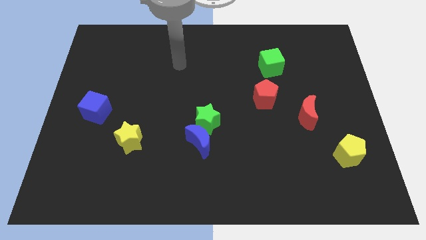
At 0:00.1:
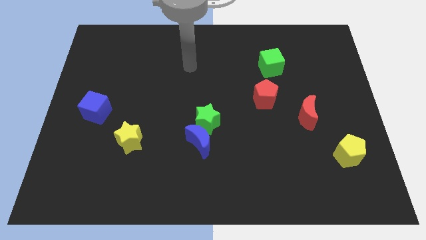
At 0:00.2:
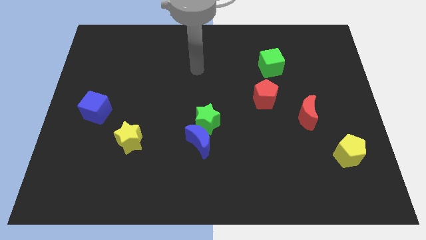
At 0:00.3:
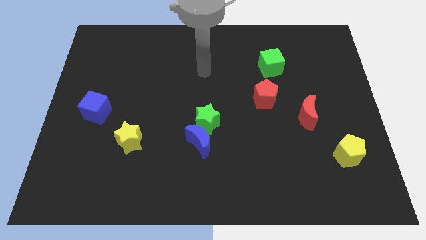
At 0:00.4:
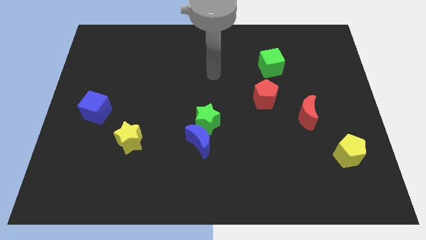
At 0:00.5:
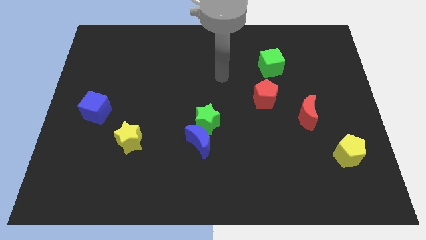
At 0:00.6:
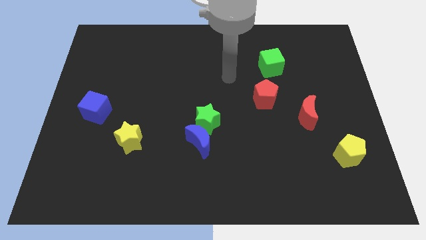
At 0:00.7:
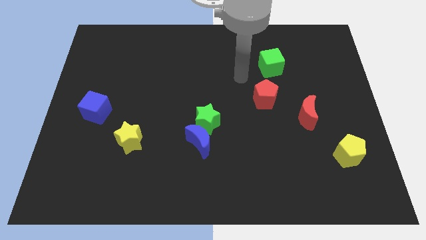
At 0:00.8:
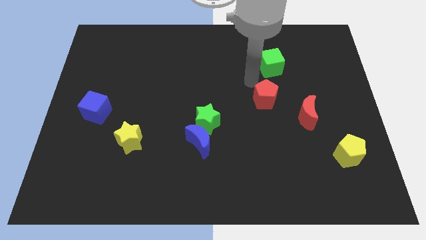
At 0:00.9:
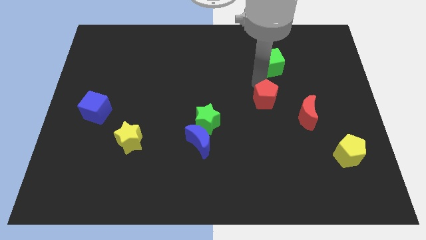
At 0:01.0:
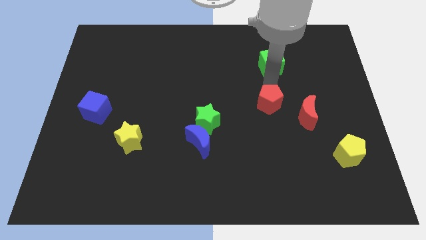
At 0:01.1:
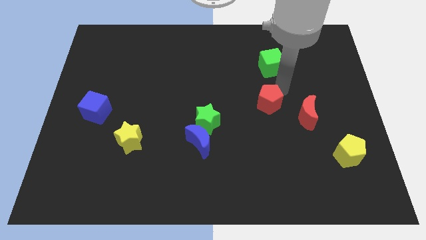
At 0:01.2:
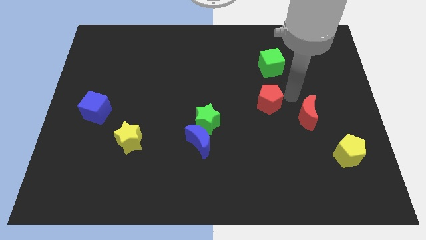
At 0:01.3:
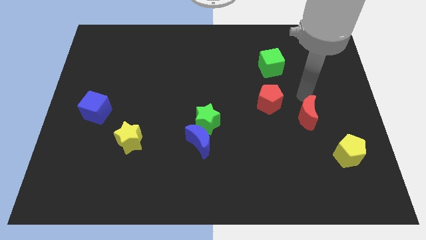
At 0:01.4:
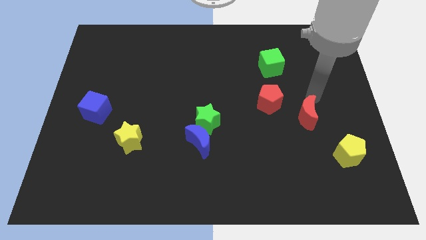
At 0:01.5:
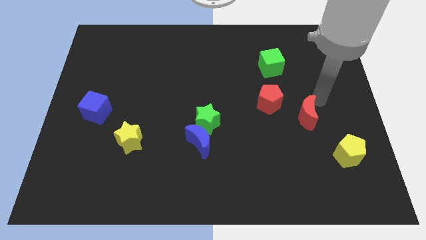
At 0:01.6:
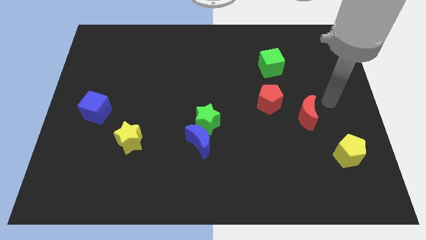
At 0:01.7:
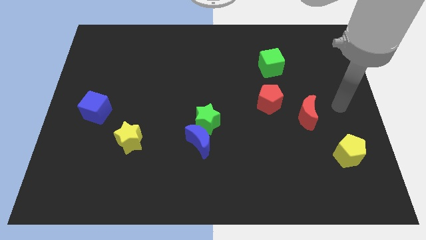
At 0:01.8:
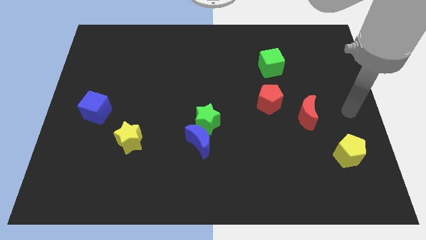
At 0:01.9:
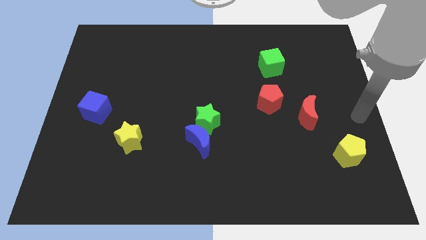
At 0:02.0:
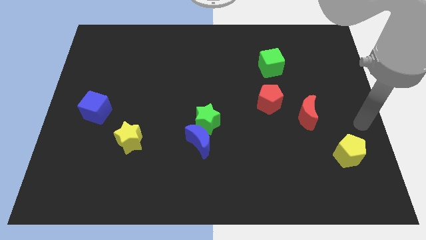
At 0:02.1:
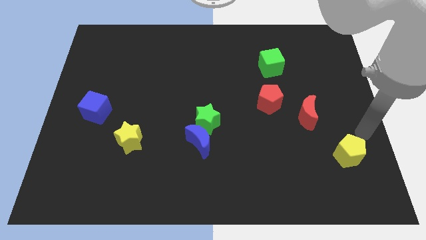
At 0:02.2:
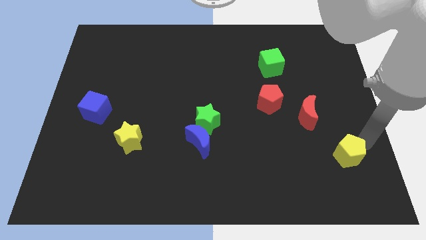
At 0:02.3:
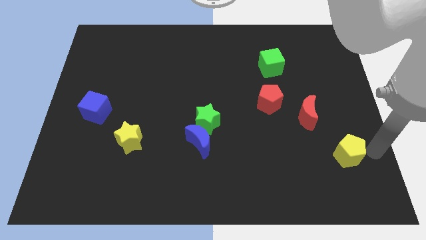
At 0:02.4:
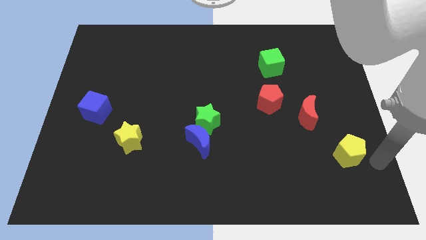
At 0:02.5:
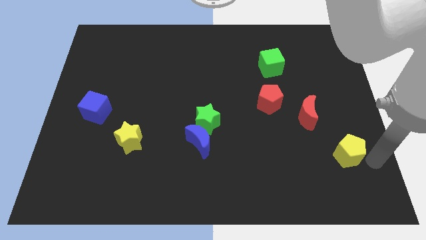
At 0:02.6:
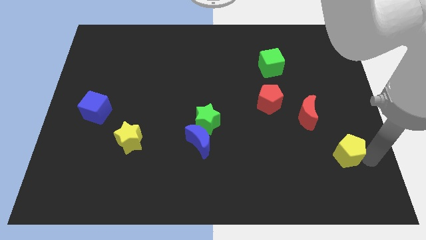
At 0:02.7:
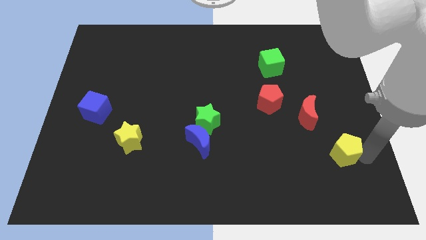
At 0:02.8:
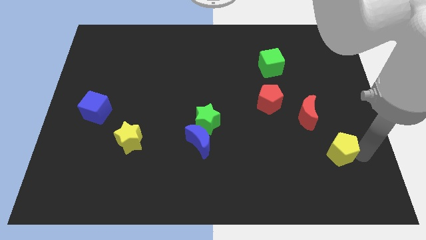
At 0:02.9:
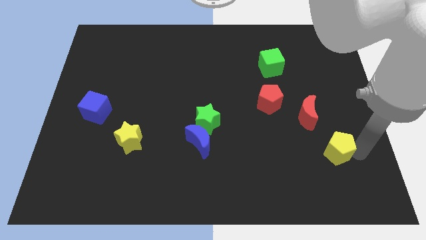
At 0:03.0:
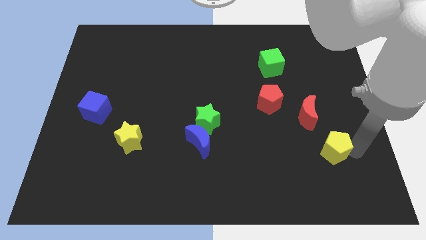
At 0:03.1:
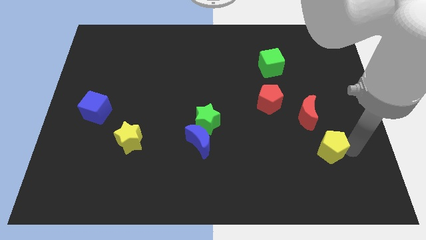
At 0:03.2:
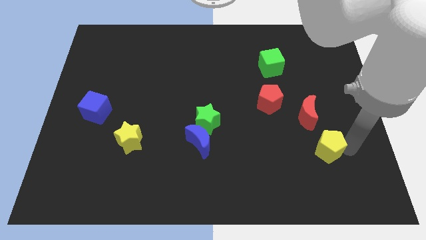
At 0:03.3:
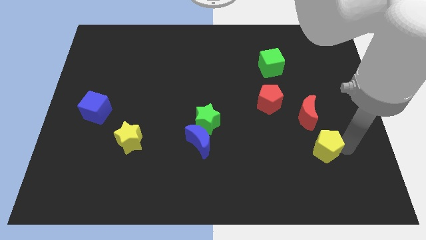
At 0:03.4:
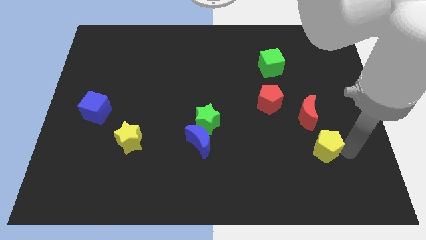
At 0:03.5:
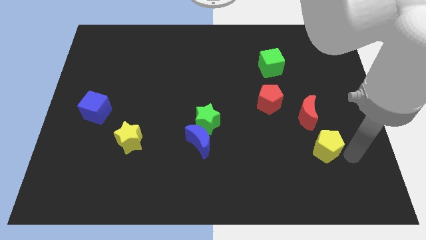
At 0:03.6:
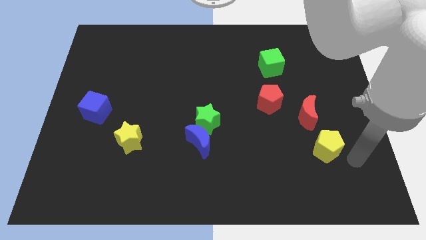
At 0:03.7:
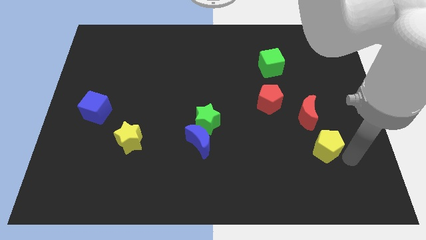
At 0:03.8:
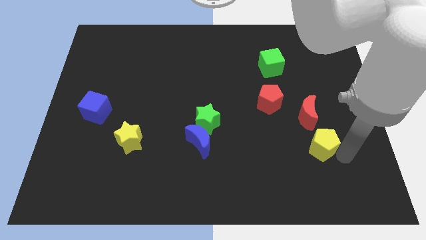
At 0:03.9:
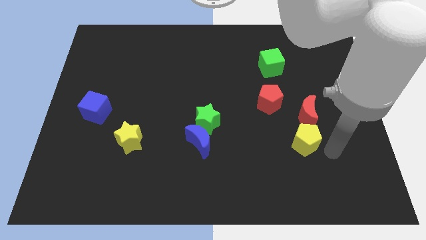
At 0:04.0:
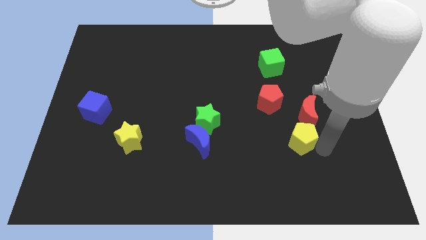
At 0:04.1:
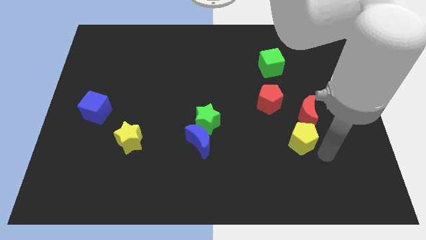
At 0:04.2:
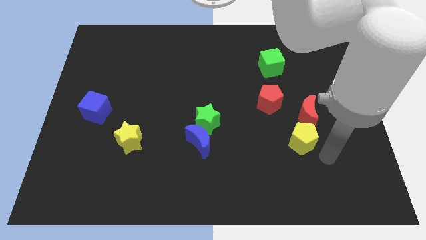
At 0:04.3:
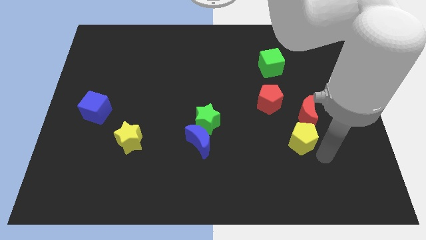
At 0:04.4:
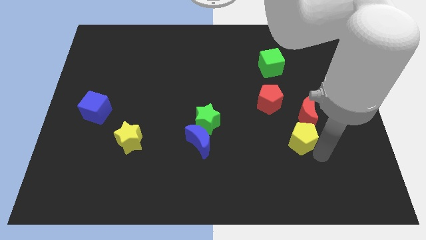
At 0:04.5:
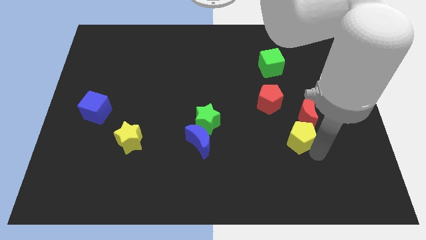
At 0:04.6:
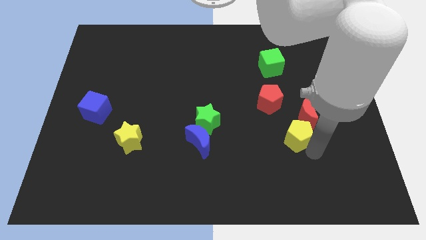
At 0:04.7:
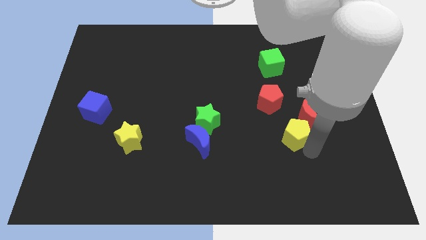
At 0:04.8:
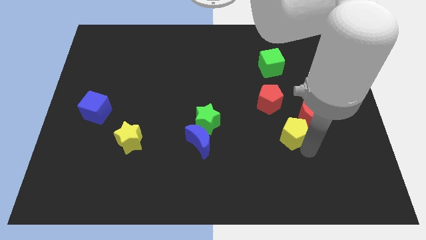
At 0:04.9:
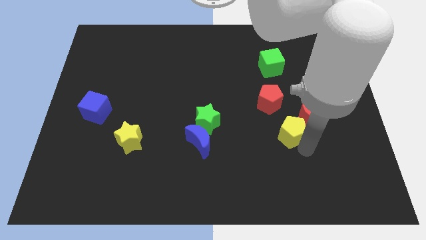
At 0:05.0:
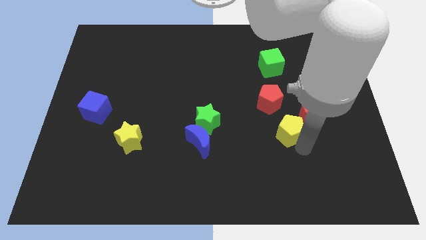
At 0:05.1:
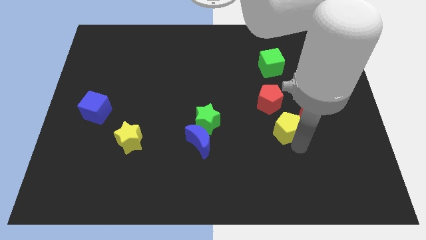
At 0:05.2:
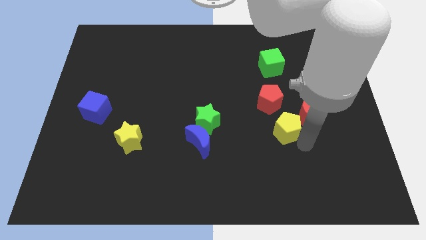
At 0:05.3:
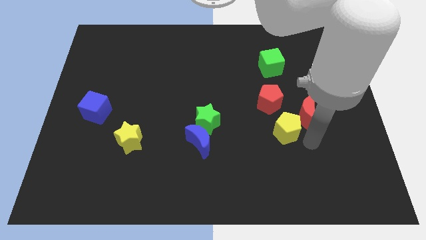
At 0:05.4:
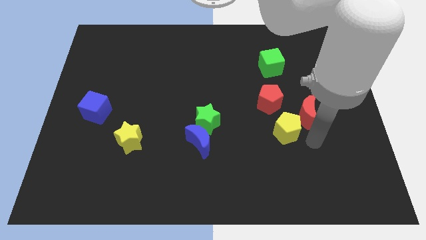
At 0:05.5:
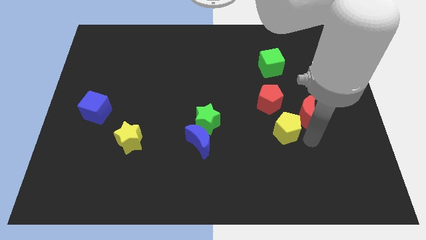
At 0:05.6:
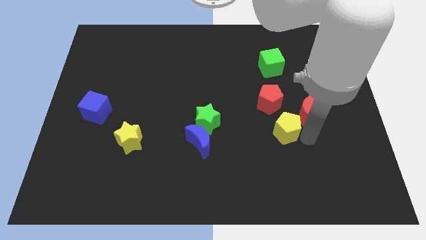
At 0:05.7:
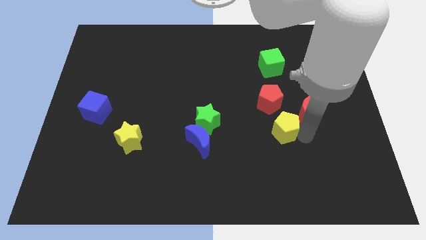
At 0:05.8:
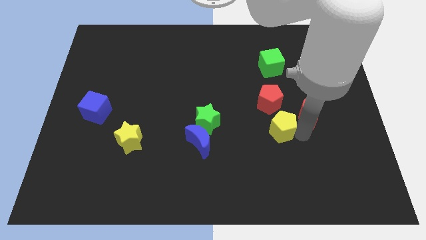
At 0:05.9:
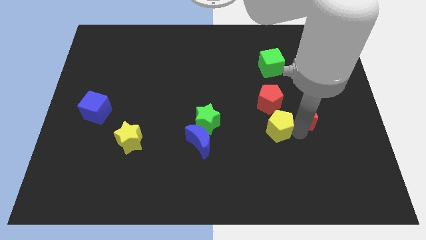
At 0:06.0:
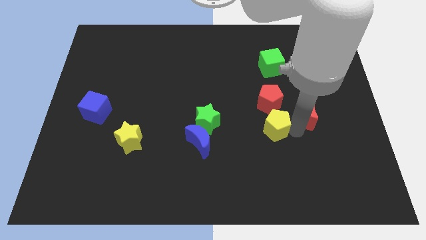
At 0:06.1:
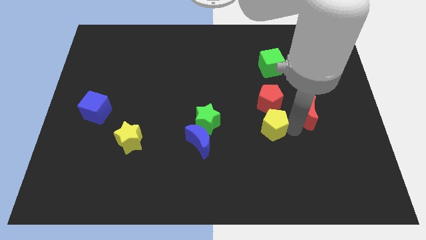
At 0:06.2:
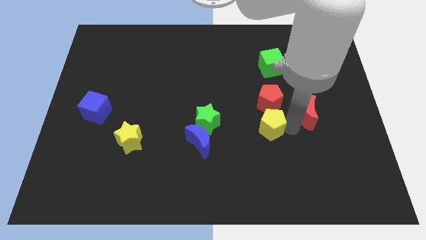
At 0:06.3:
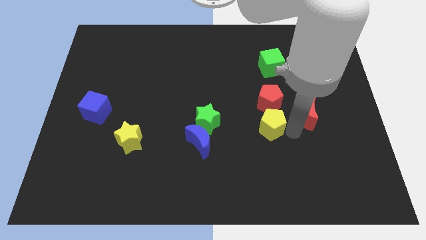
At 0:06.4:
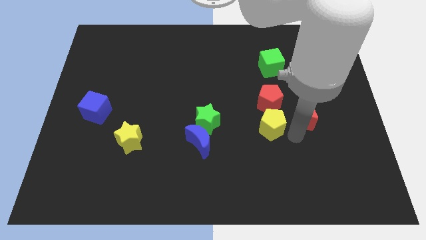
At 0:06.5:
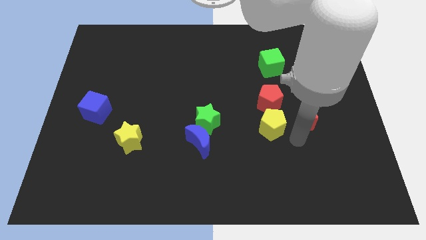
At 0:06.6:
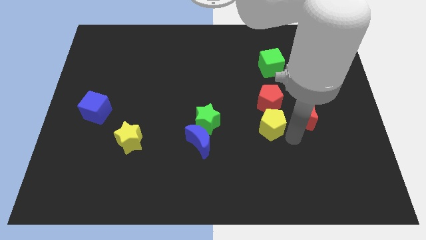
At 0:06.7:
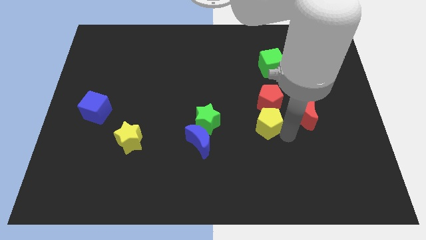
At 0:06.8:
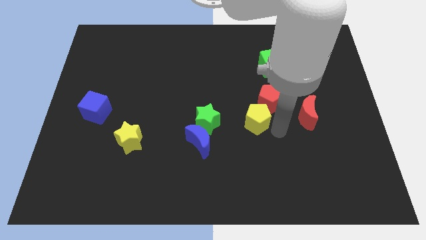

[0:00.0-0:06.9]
slide the yellow pentagon to the center
